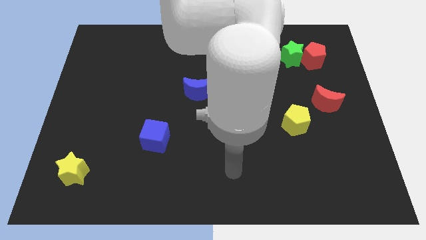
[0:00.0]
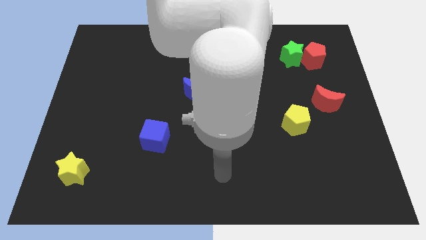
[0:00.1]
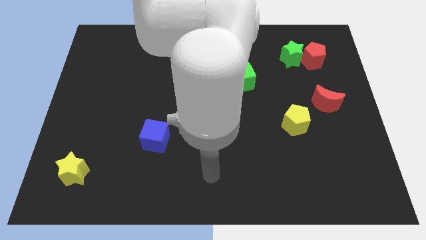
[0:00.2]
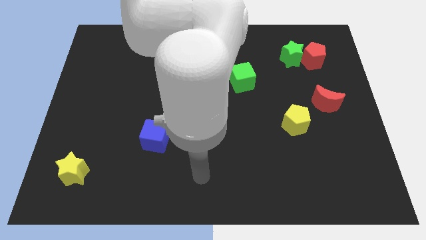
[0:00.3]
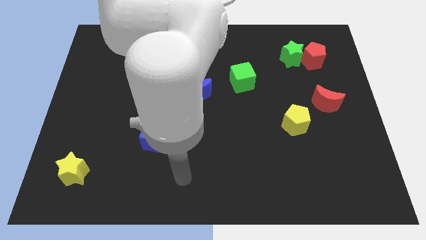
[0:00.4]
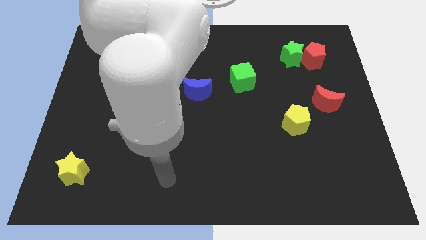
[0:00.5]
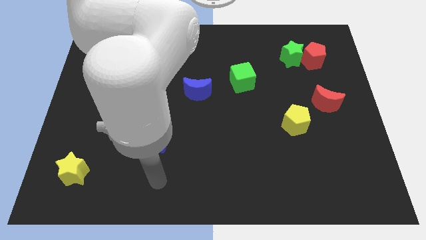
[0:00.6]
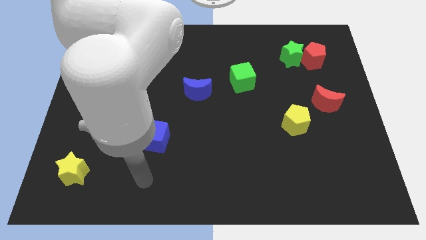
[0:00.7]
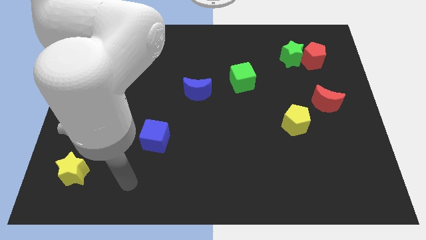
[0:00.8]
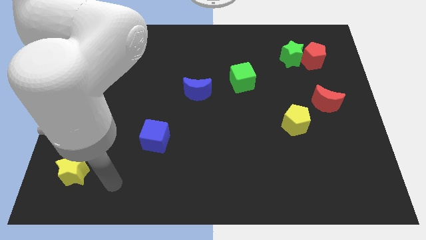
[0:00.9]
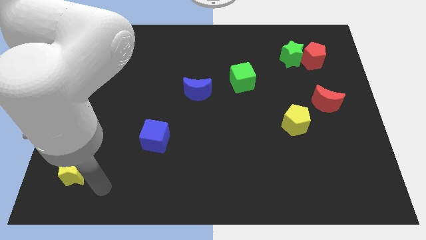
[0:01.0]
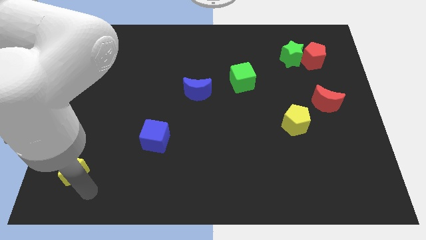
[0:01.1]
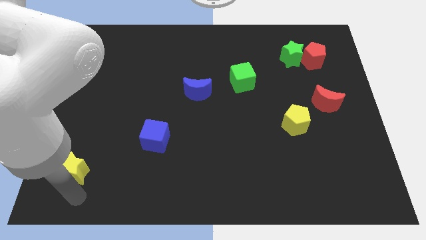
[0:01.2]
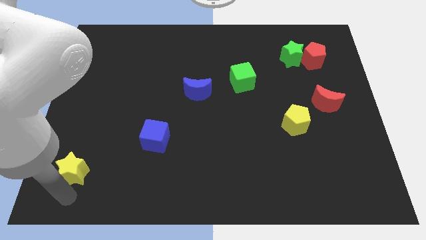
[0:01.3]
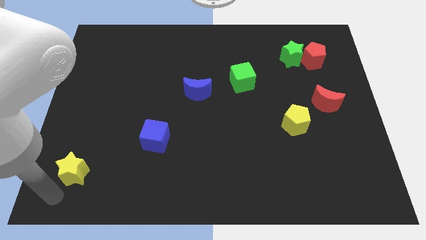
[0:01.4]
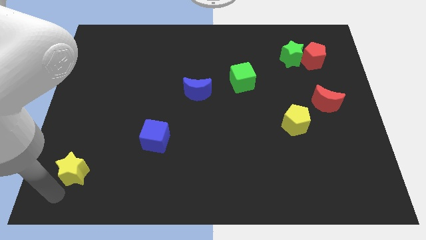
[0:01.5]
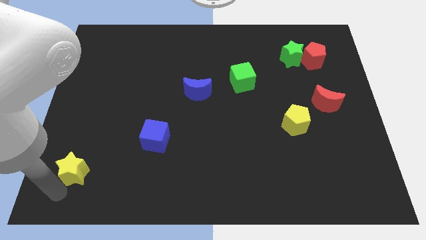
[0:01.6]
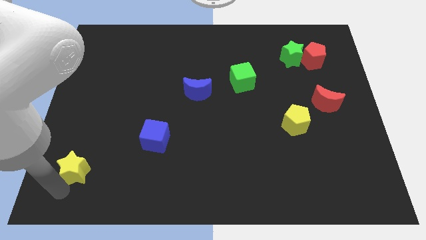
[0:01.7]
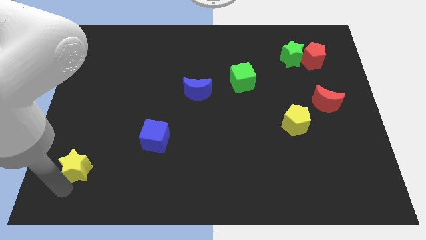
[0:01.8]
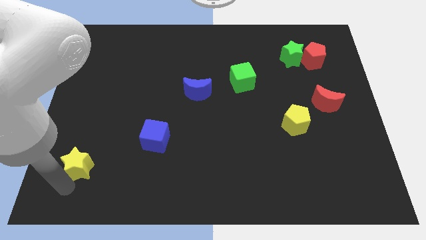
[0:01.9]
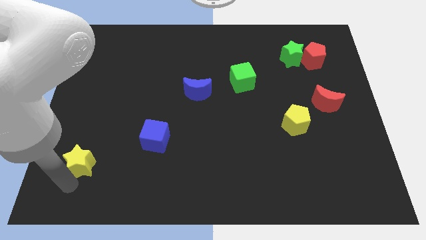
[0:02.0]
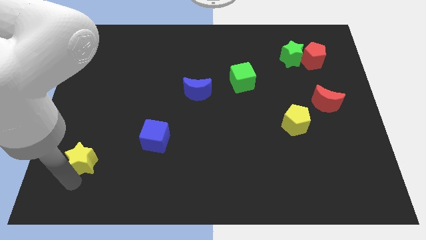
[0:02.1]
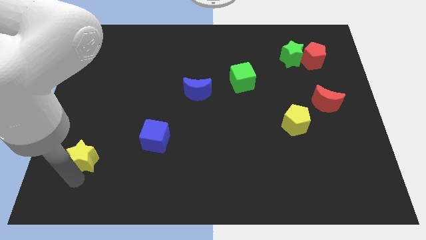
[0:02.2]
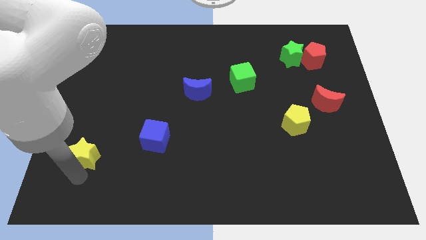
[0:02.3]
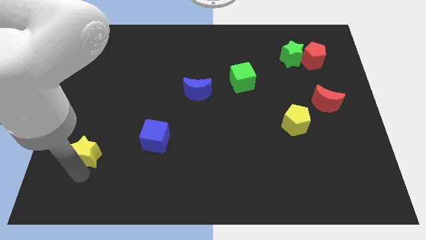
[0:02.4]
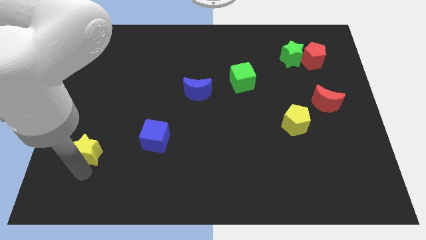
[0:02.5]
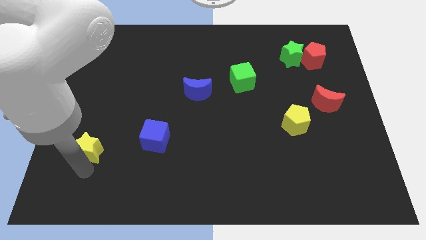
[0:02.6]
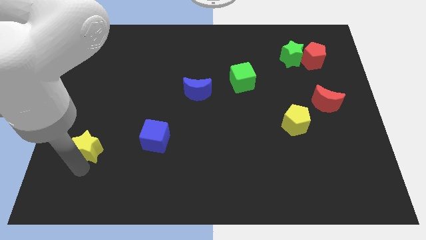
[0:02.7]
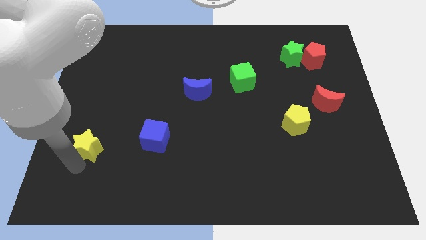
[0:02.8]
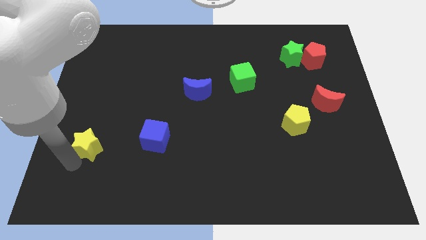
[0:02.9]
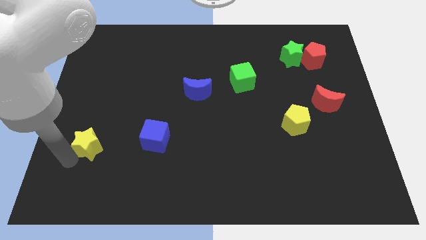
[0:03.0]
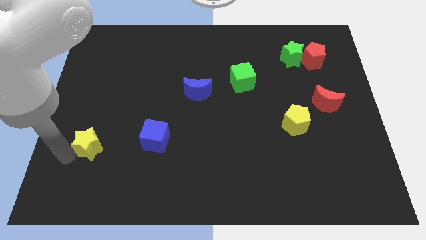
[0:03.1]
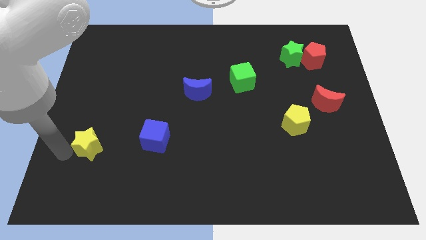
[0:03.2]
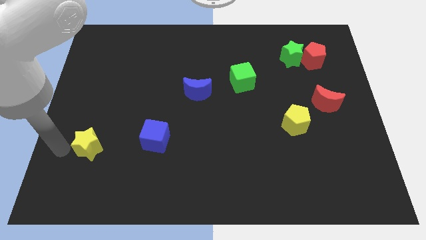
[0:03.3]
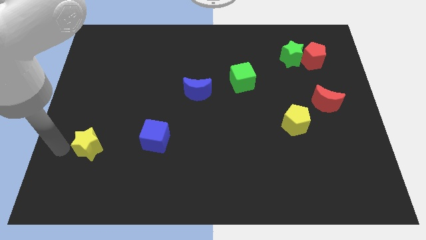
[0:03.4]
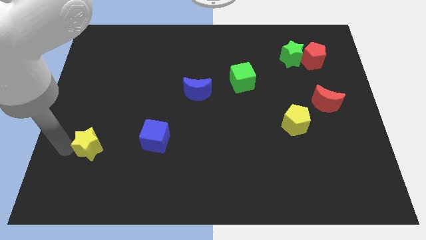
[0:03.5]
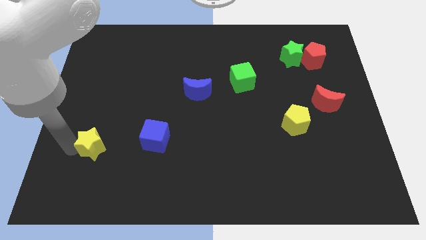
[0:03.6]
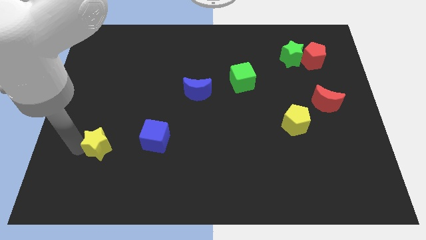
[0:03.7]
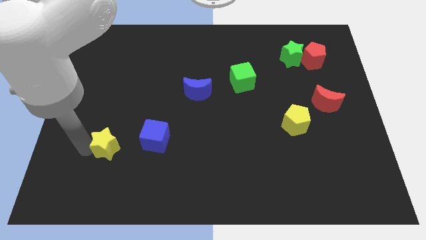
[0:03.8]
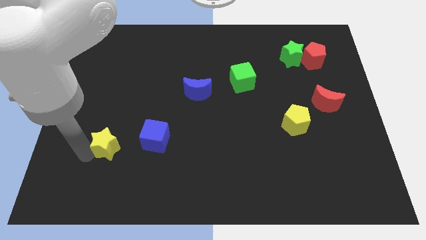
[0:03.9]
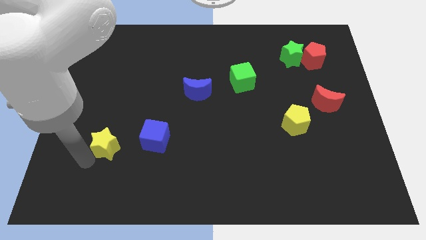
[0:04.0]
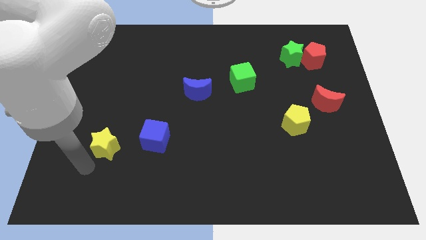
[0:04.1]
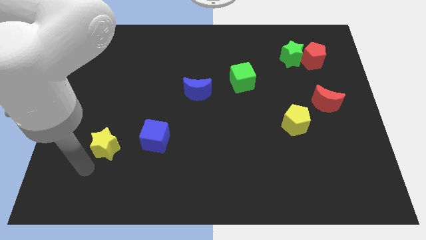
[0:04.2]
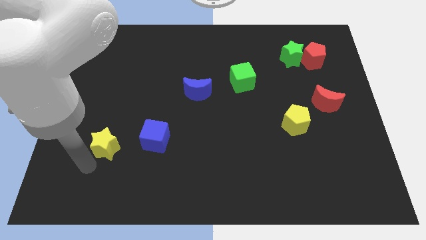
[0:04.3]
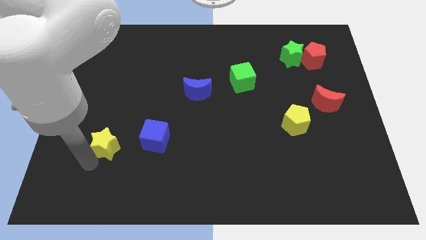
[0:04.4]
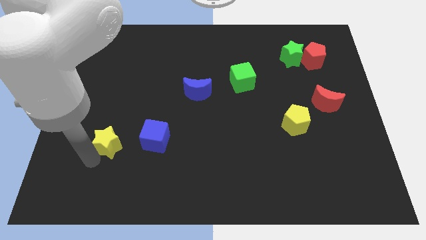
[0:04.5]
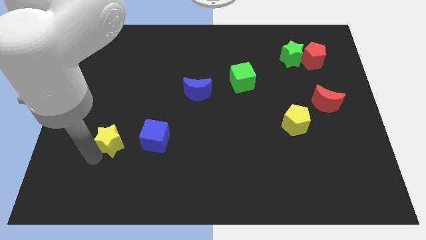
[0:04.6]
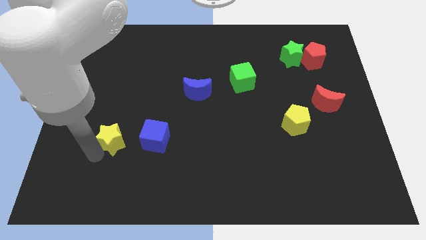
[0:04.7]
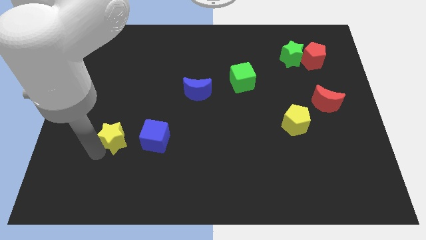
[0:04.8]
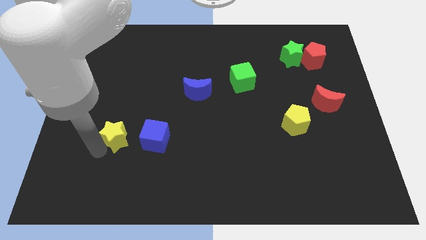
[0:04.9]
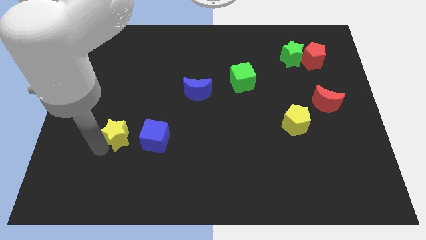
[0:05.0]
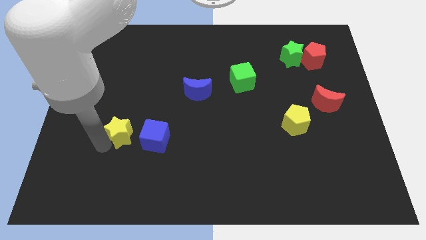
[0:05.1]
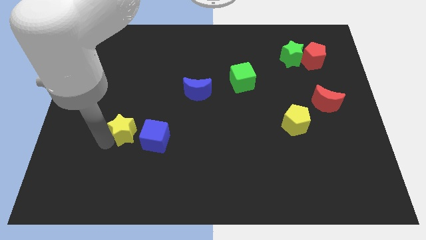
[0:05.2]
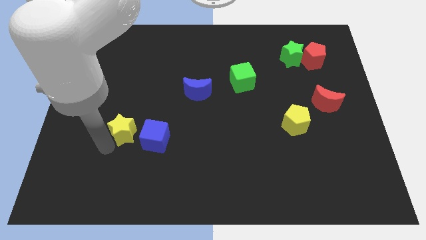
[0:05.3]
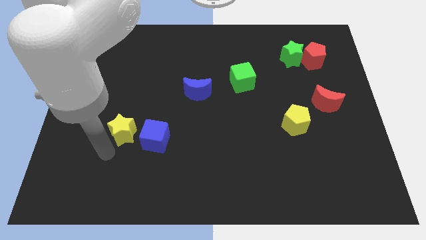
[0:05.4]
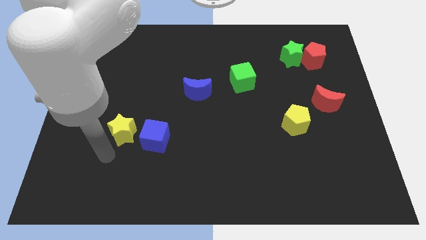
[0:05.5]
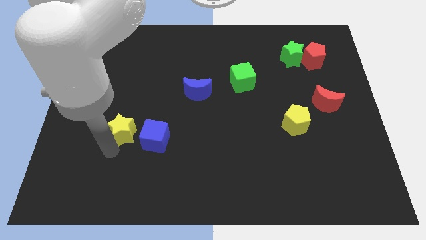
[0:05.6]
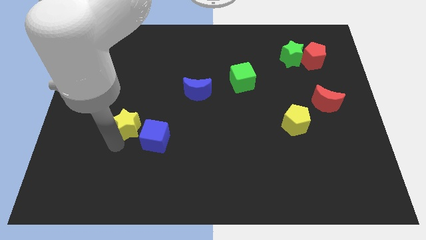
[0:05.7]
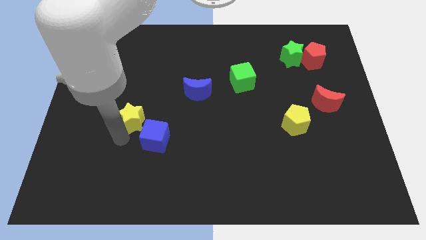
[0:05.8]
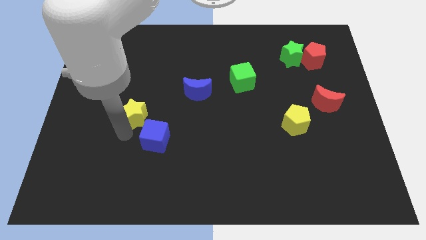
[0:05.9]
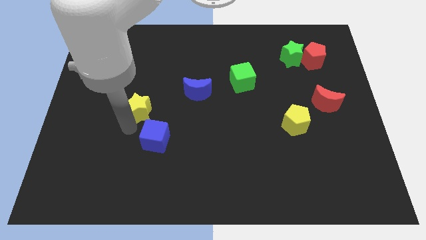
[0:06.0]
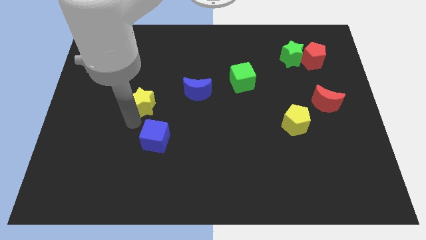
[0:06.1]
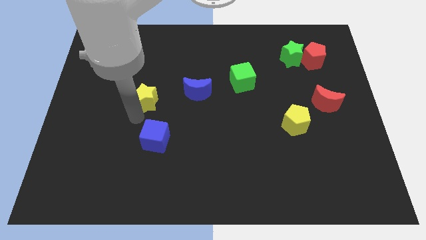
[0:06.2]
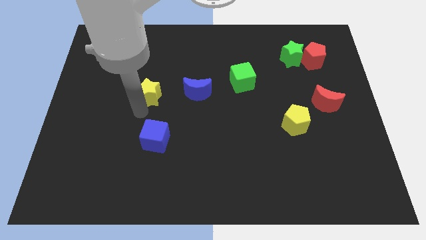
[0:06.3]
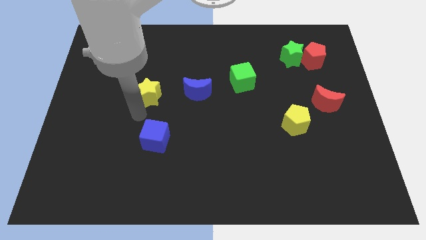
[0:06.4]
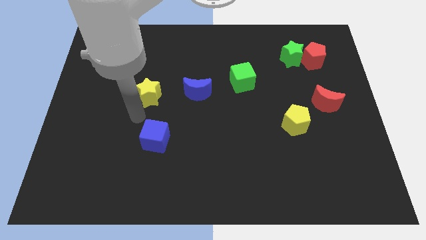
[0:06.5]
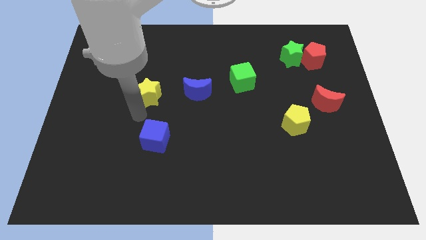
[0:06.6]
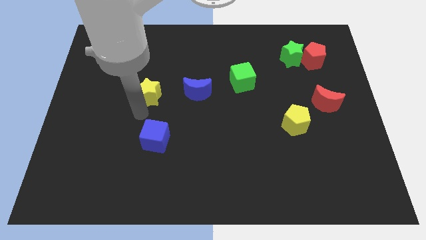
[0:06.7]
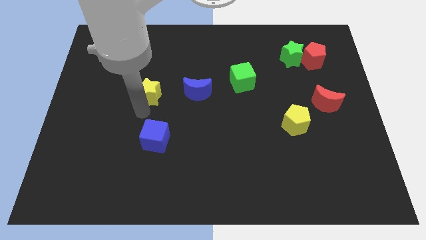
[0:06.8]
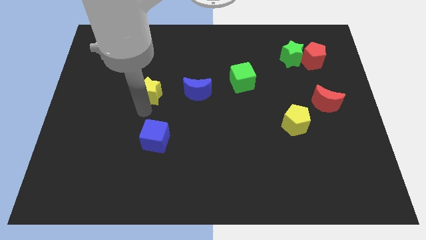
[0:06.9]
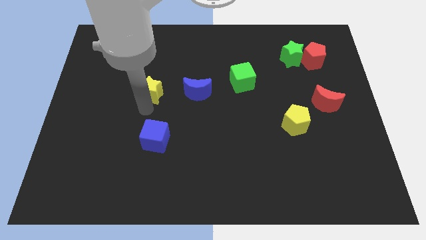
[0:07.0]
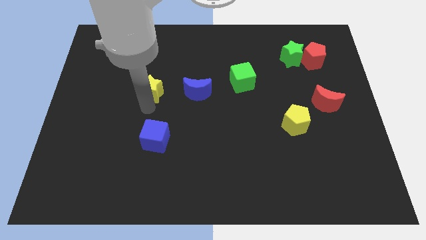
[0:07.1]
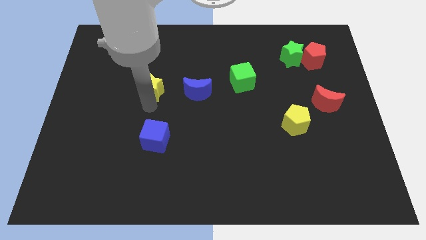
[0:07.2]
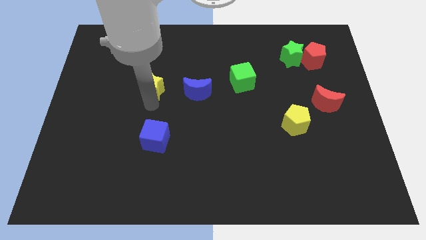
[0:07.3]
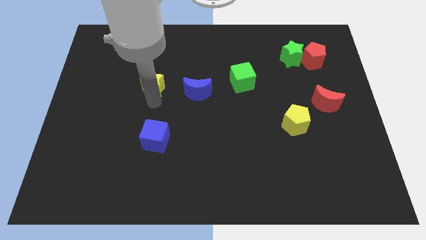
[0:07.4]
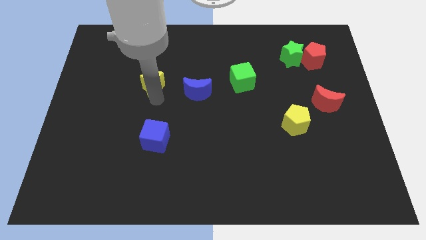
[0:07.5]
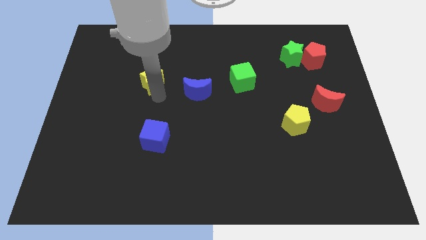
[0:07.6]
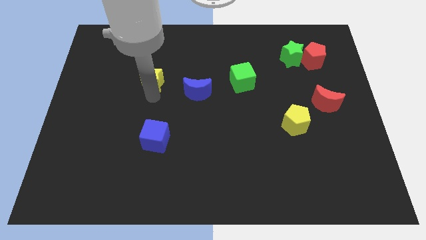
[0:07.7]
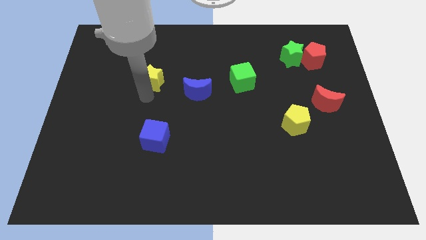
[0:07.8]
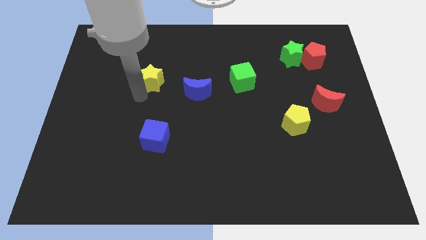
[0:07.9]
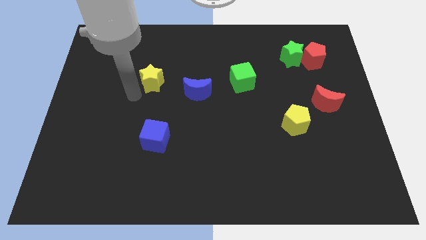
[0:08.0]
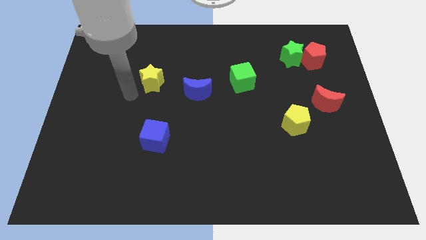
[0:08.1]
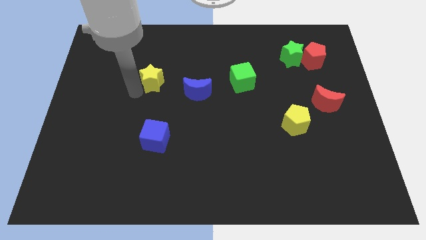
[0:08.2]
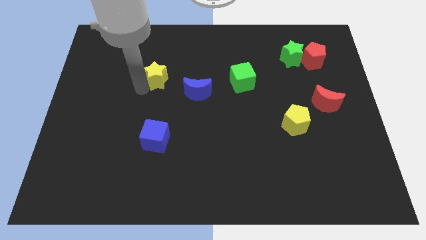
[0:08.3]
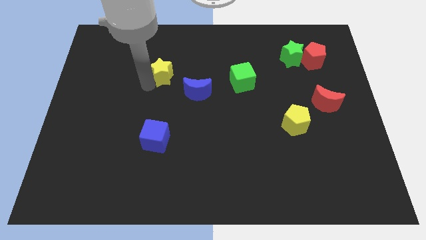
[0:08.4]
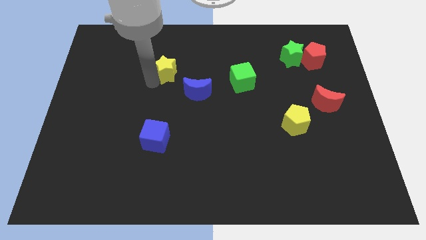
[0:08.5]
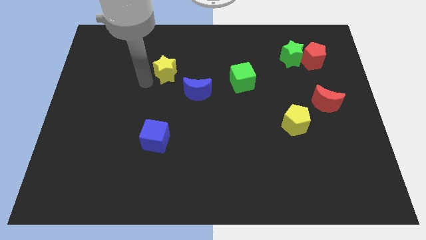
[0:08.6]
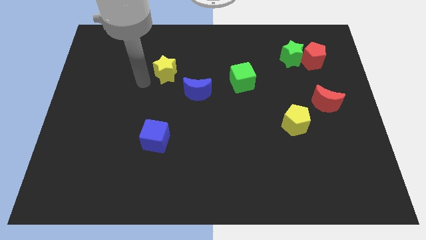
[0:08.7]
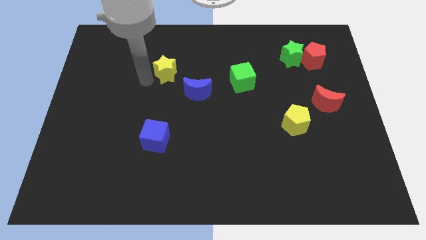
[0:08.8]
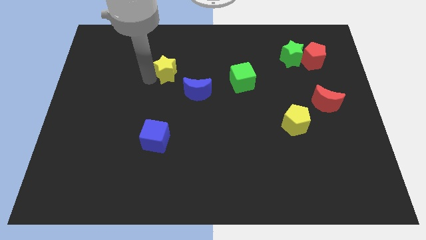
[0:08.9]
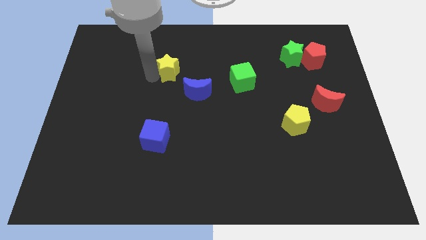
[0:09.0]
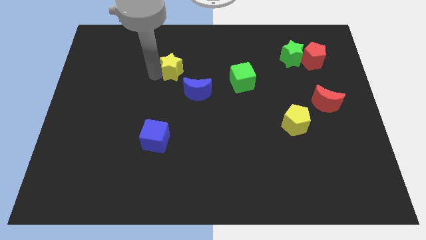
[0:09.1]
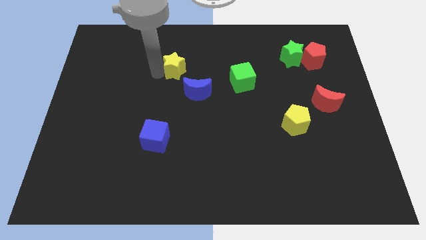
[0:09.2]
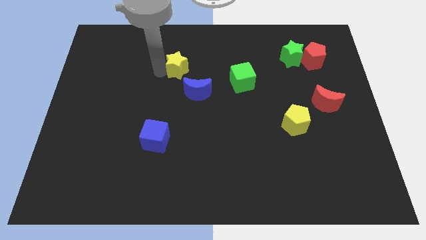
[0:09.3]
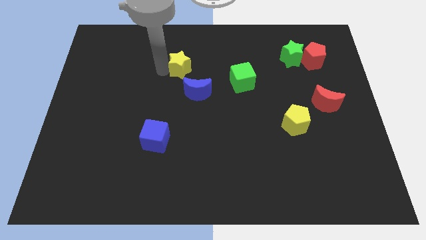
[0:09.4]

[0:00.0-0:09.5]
move the yellow star to the top side of the blue moon
